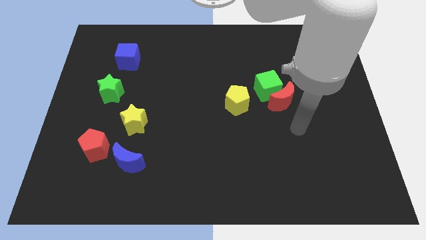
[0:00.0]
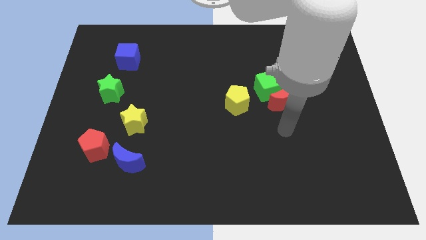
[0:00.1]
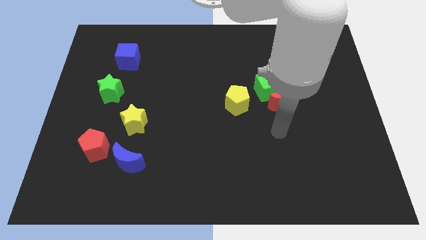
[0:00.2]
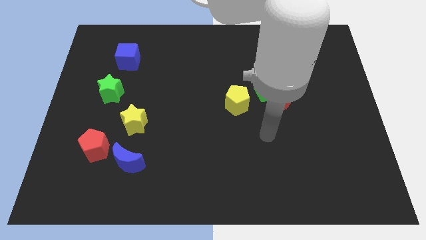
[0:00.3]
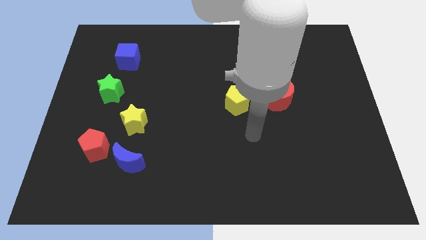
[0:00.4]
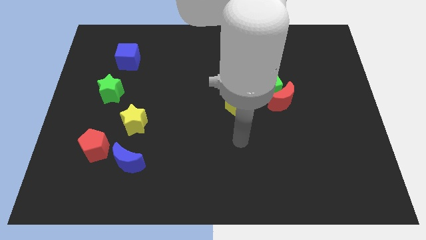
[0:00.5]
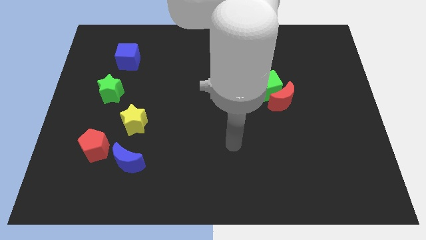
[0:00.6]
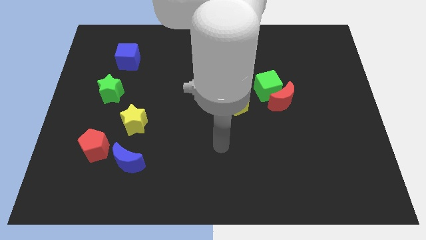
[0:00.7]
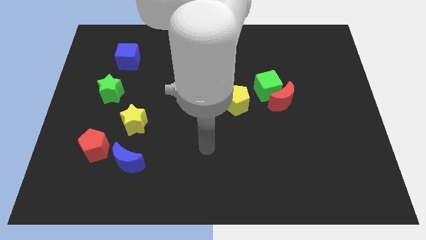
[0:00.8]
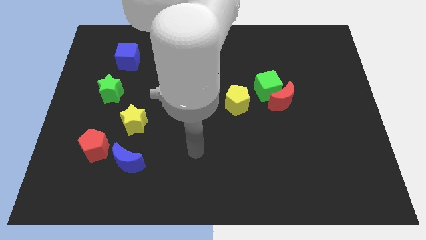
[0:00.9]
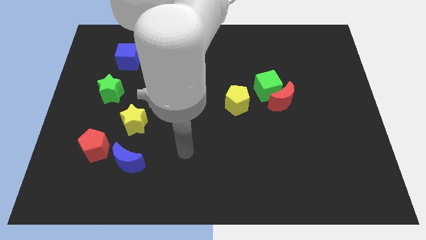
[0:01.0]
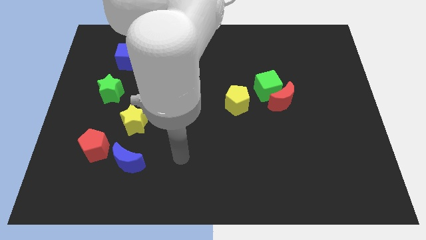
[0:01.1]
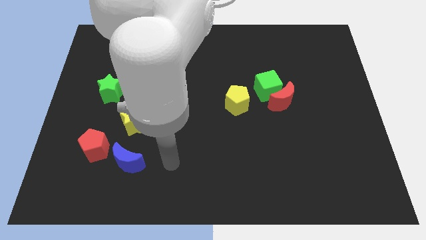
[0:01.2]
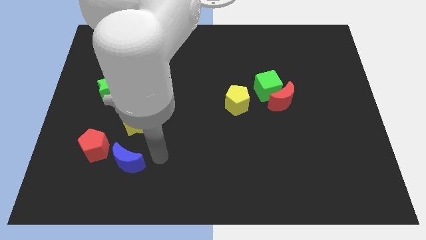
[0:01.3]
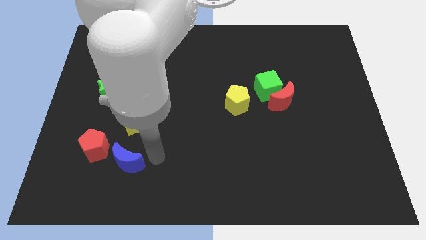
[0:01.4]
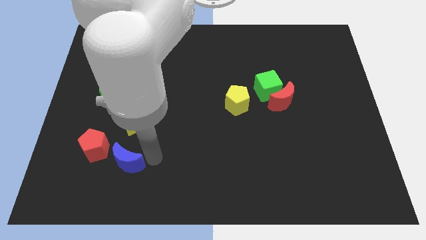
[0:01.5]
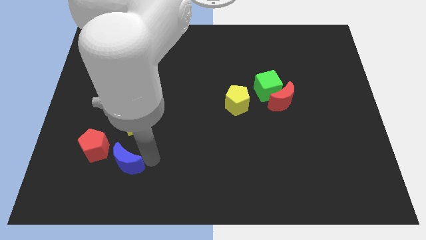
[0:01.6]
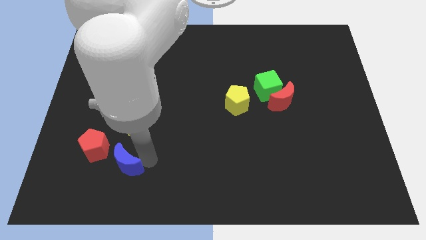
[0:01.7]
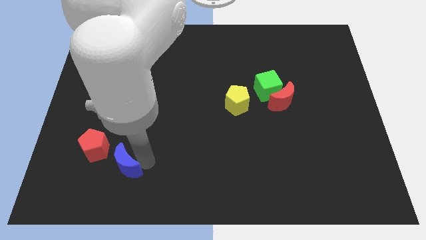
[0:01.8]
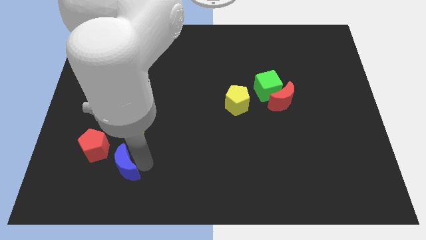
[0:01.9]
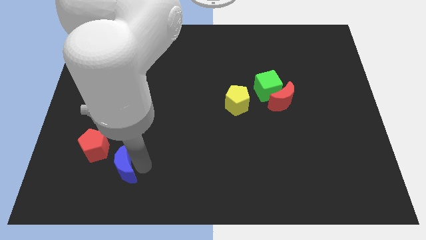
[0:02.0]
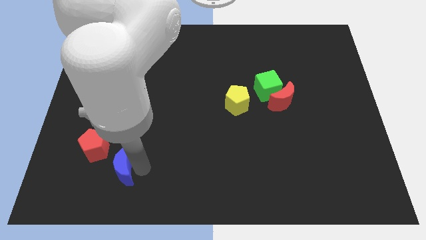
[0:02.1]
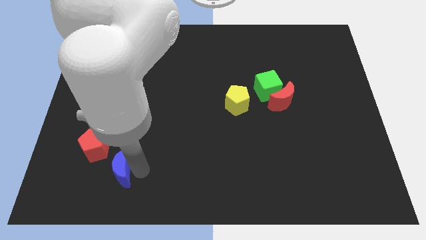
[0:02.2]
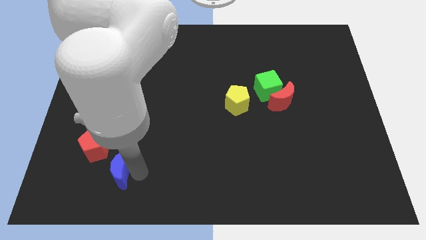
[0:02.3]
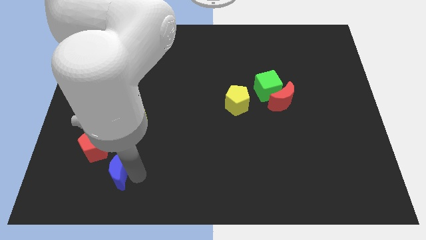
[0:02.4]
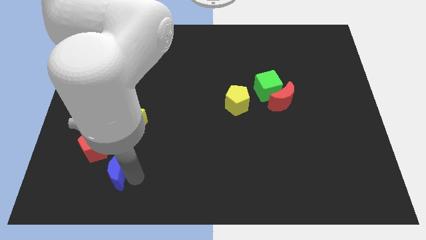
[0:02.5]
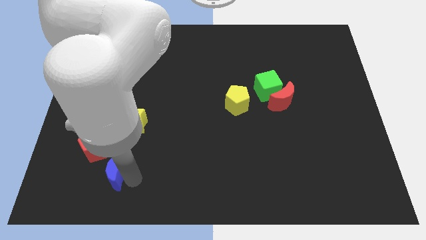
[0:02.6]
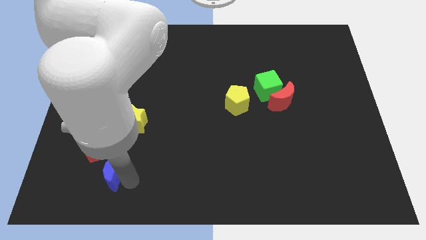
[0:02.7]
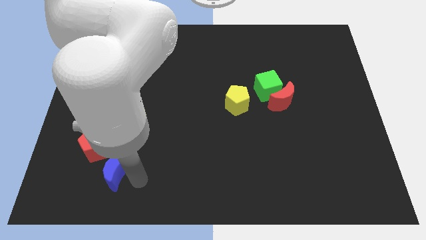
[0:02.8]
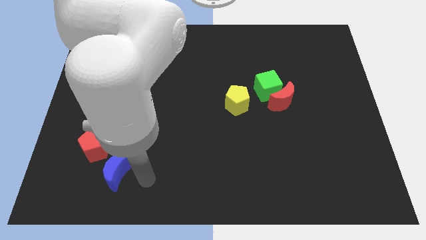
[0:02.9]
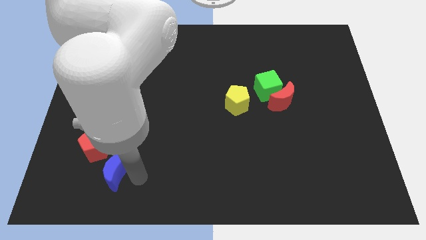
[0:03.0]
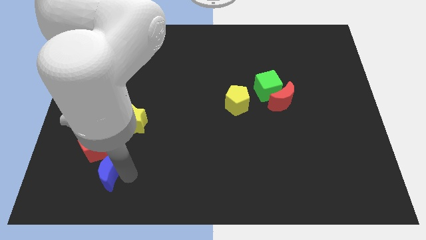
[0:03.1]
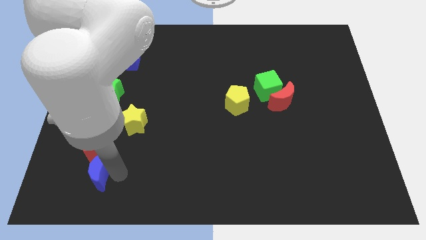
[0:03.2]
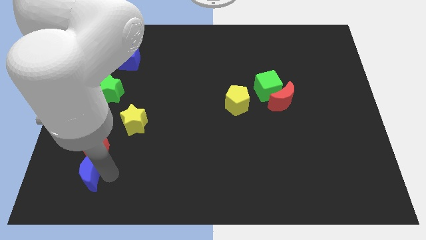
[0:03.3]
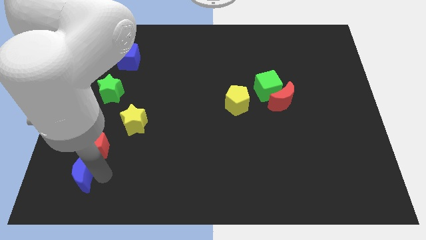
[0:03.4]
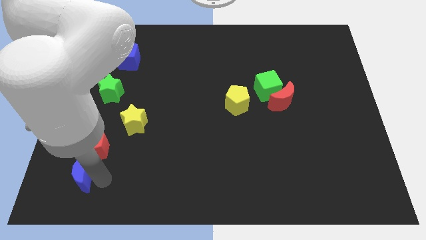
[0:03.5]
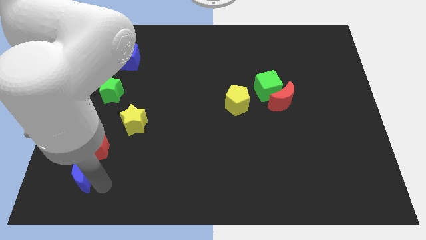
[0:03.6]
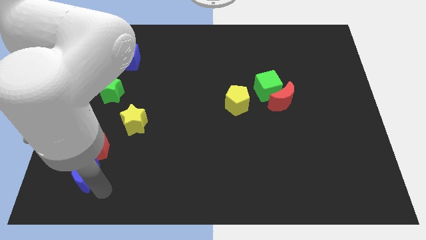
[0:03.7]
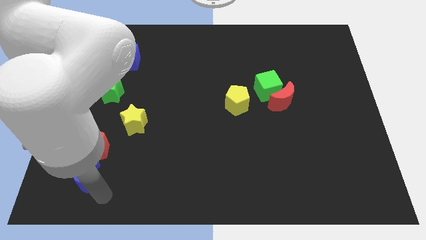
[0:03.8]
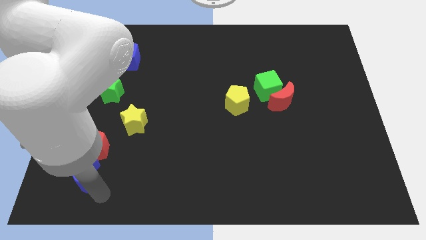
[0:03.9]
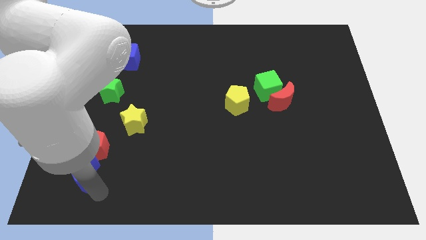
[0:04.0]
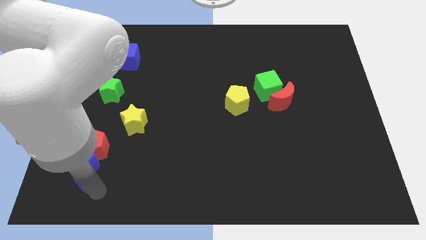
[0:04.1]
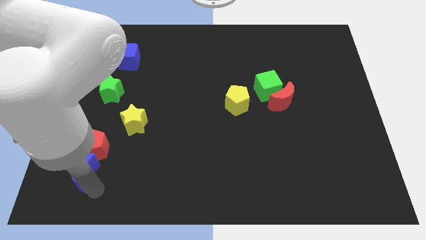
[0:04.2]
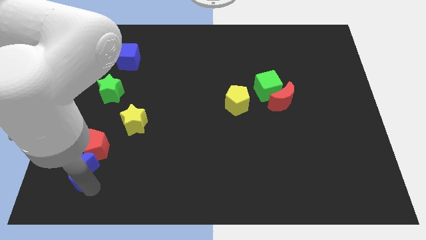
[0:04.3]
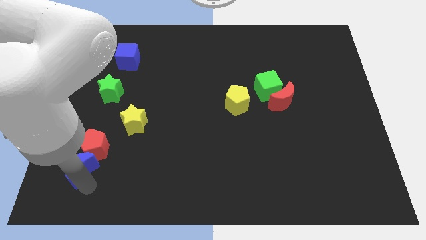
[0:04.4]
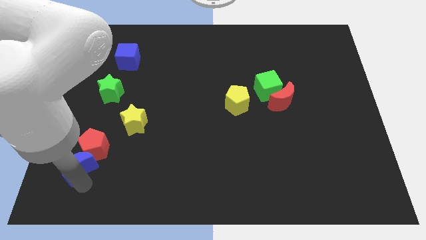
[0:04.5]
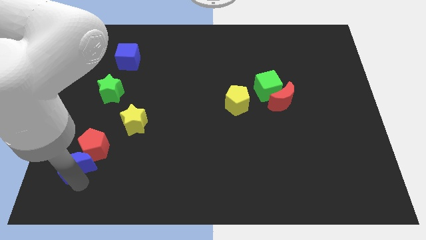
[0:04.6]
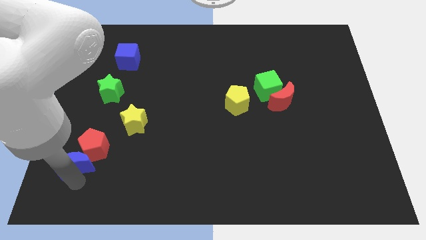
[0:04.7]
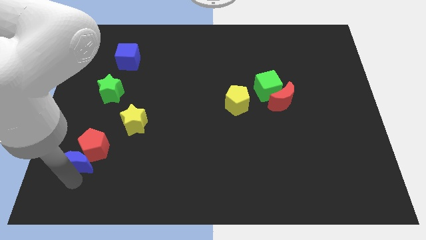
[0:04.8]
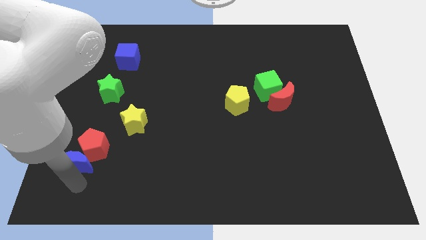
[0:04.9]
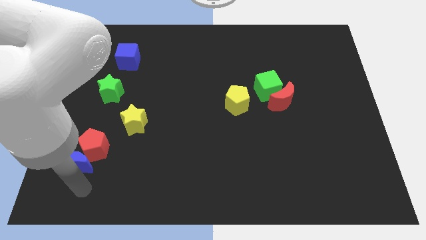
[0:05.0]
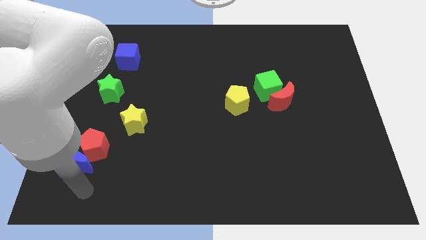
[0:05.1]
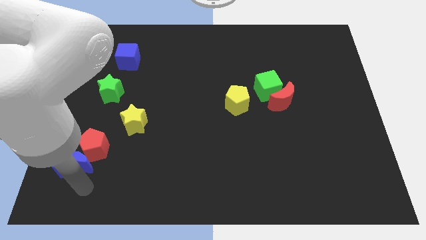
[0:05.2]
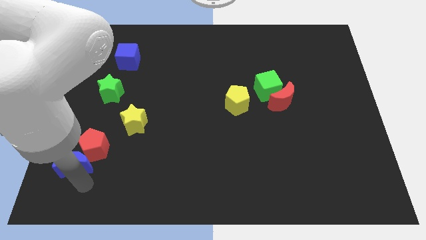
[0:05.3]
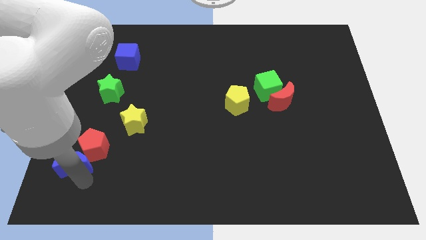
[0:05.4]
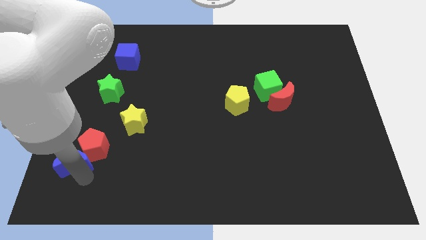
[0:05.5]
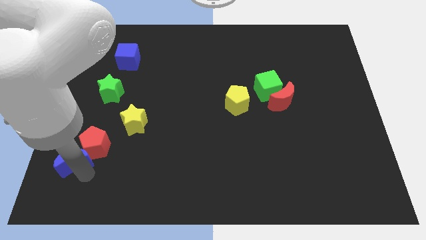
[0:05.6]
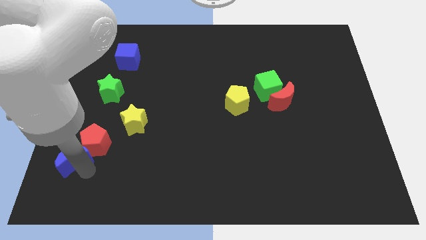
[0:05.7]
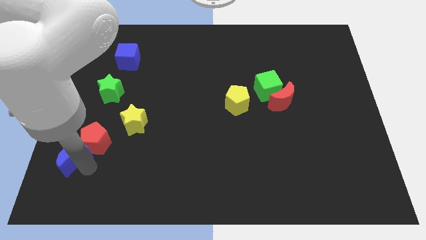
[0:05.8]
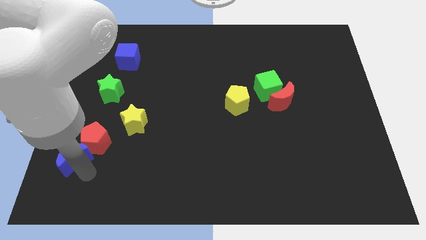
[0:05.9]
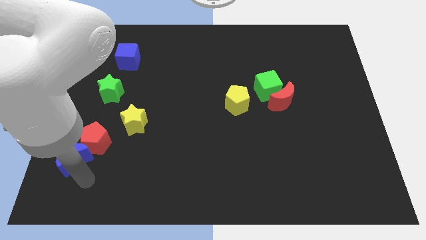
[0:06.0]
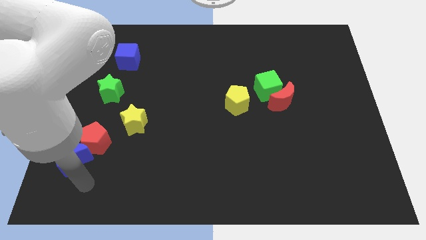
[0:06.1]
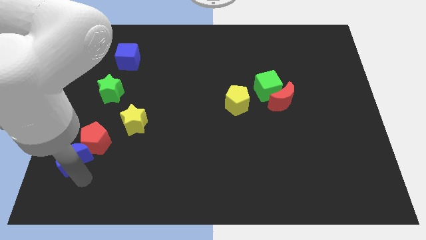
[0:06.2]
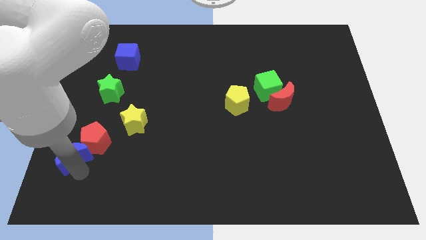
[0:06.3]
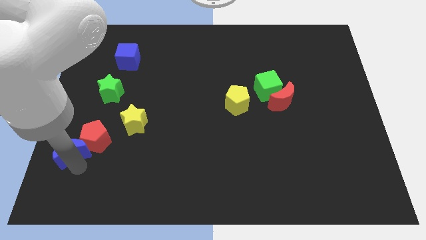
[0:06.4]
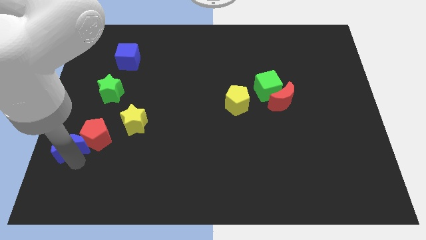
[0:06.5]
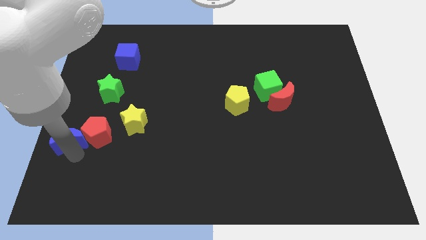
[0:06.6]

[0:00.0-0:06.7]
put the blue moon to the left side of the board
